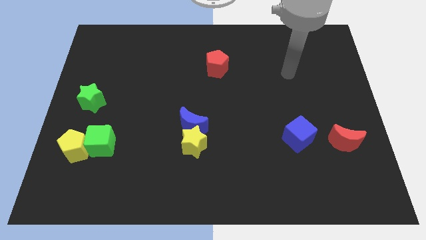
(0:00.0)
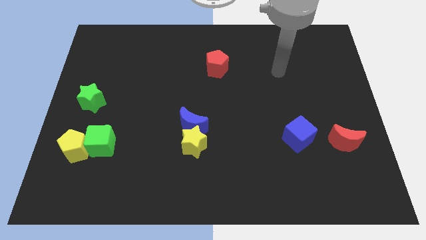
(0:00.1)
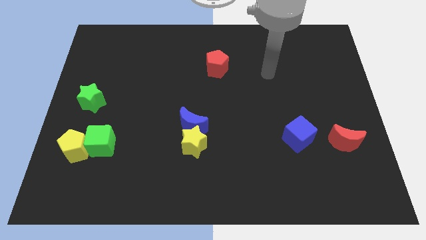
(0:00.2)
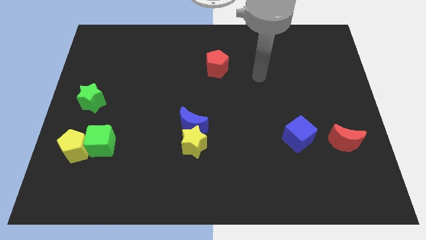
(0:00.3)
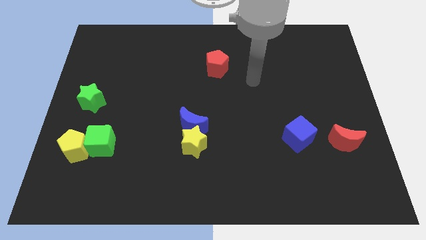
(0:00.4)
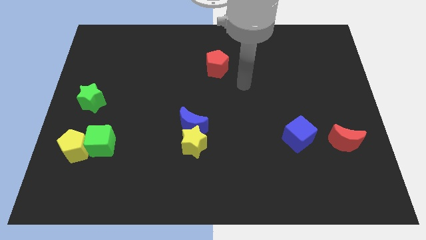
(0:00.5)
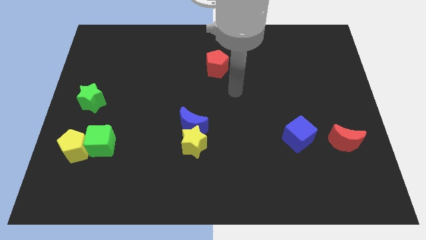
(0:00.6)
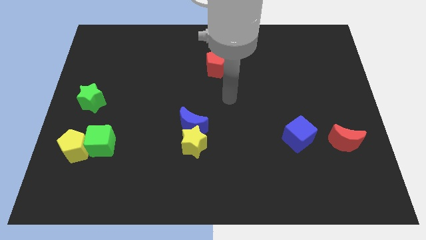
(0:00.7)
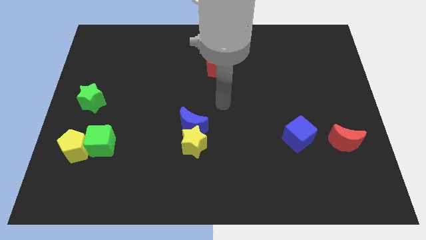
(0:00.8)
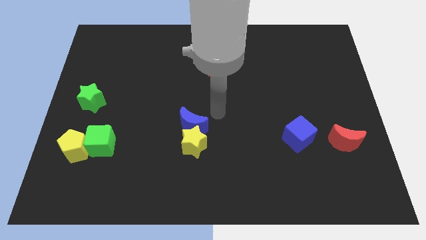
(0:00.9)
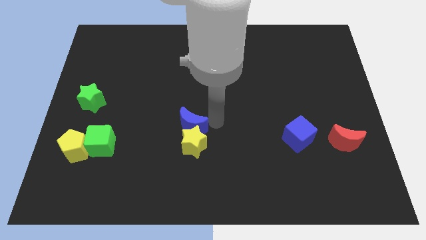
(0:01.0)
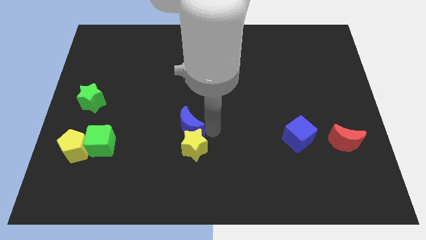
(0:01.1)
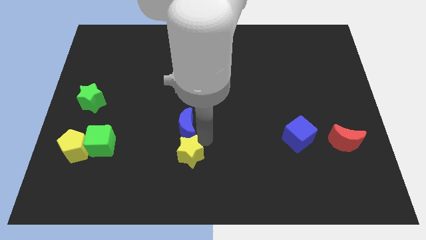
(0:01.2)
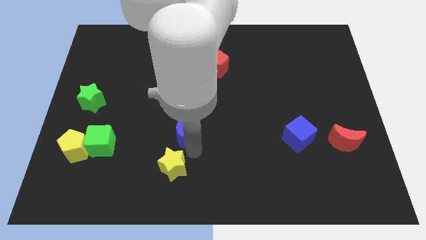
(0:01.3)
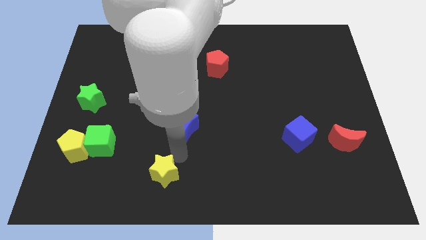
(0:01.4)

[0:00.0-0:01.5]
separate the blue moon from the yellow star

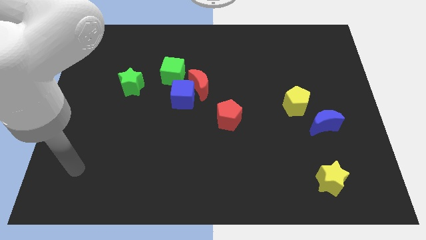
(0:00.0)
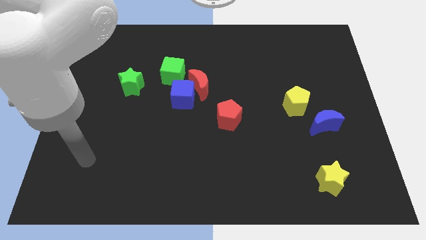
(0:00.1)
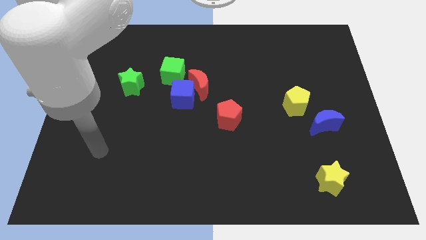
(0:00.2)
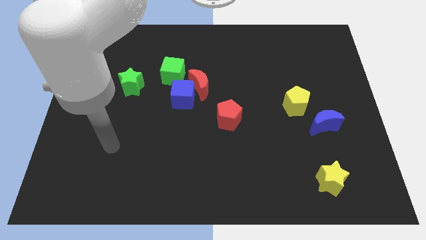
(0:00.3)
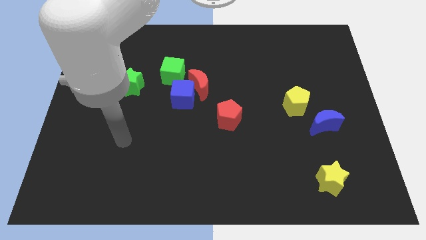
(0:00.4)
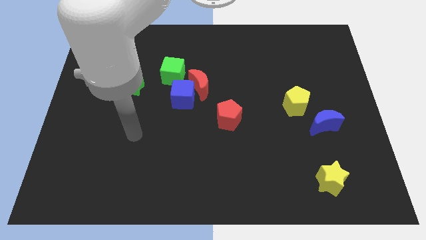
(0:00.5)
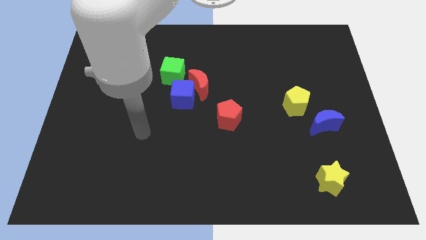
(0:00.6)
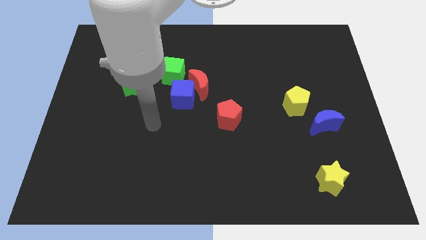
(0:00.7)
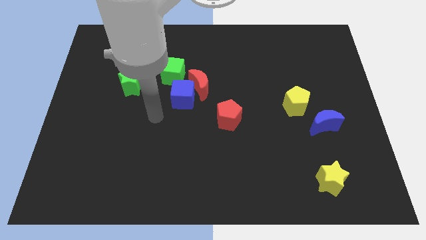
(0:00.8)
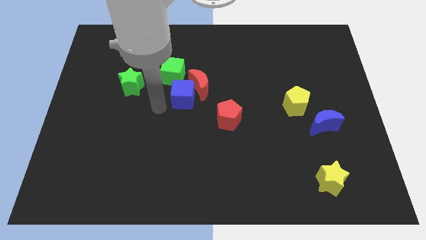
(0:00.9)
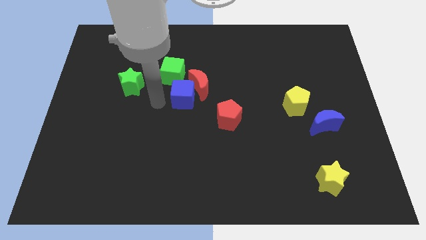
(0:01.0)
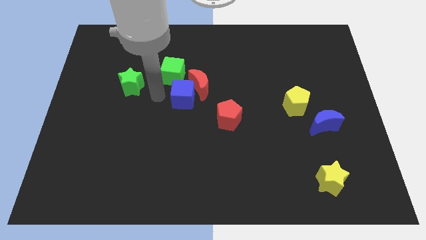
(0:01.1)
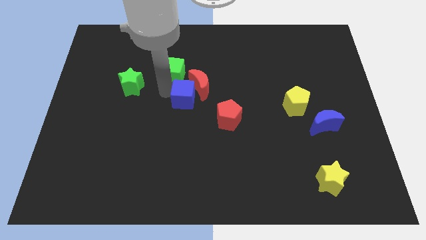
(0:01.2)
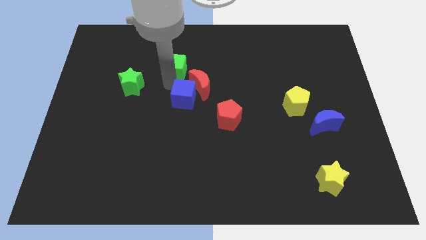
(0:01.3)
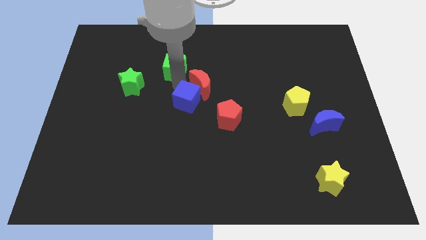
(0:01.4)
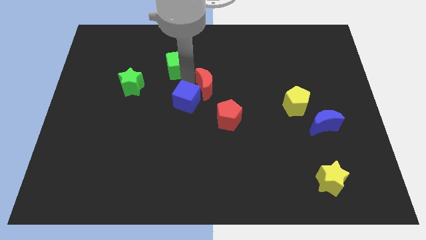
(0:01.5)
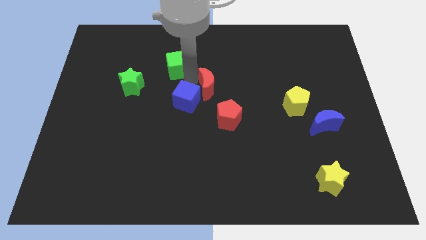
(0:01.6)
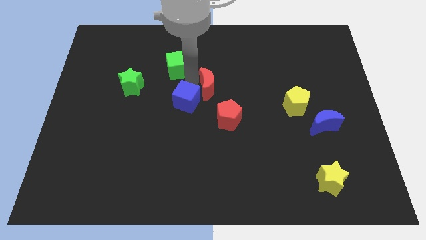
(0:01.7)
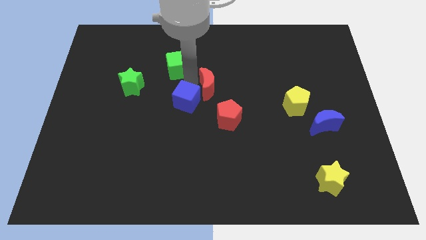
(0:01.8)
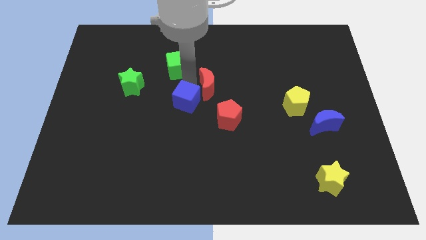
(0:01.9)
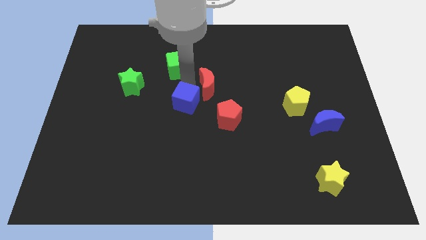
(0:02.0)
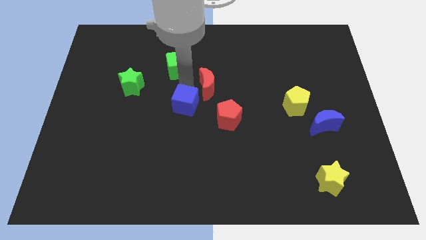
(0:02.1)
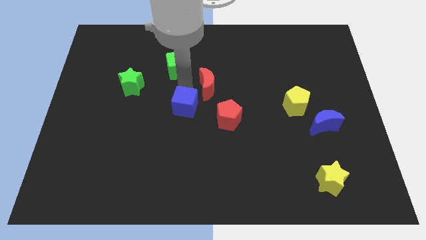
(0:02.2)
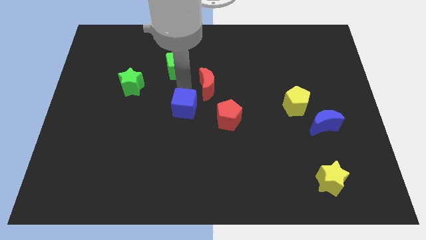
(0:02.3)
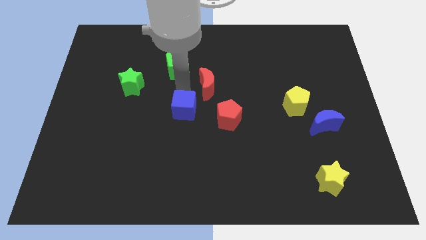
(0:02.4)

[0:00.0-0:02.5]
pull the blue cube apart from the red moon and green cube

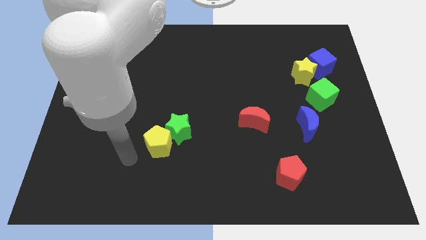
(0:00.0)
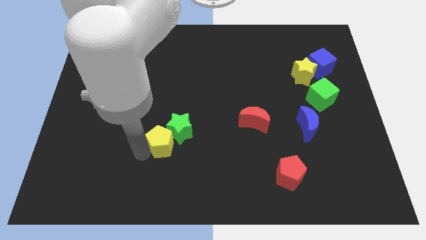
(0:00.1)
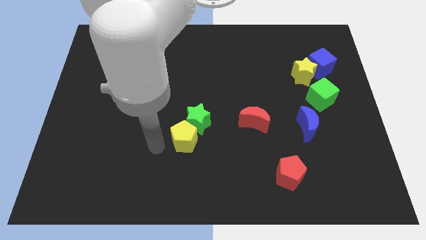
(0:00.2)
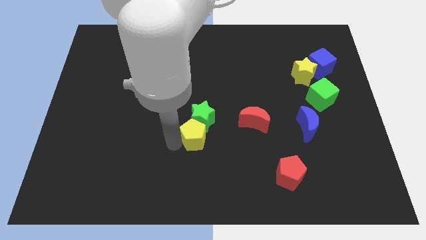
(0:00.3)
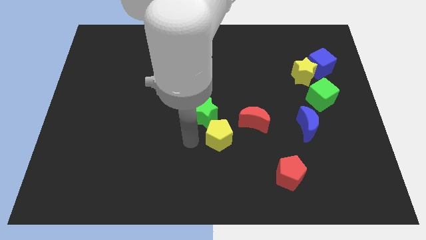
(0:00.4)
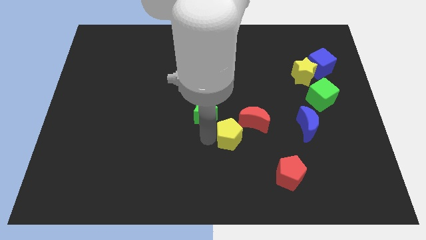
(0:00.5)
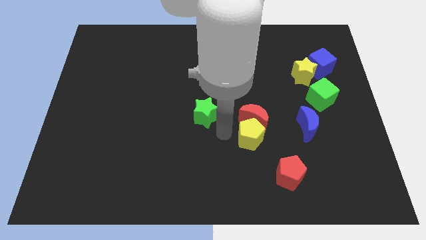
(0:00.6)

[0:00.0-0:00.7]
move the green star away from the yellow pentagon

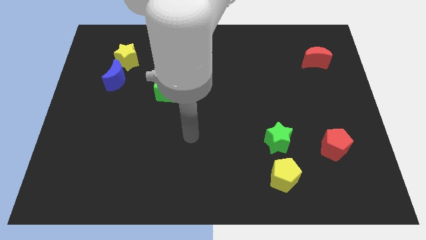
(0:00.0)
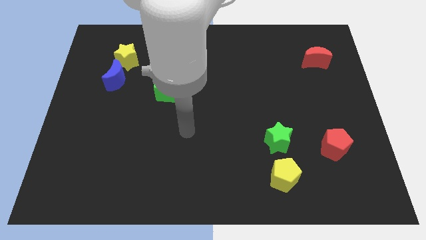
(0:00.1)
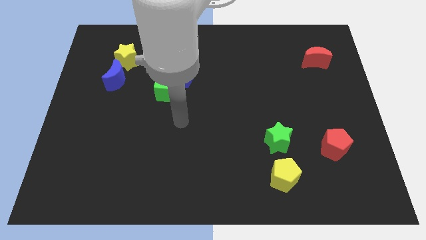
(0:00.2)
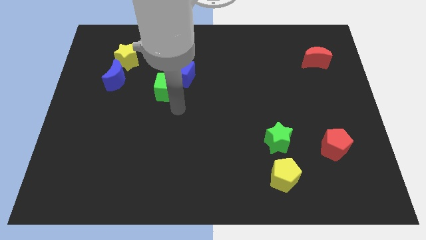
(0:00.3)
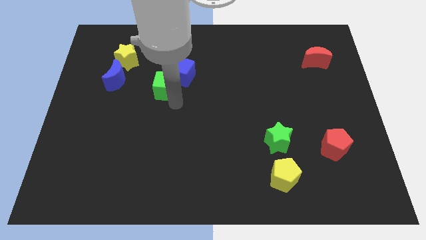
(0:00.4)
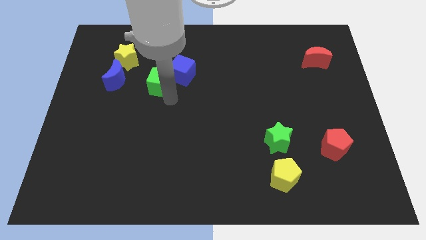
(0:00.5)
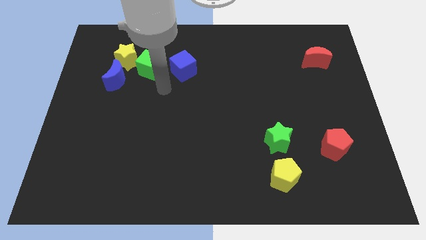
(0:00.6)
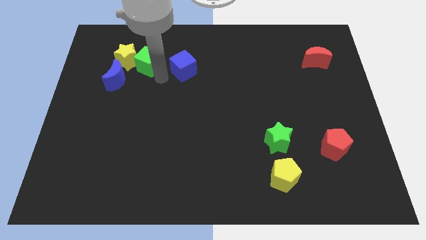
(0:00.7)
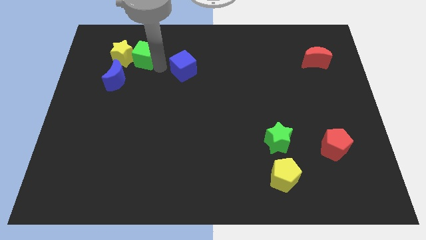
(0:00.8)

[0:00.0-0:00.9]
separate the blue cube from the green cube

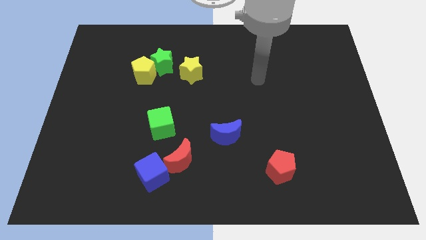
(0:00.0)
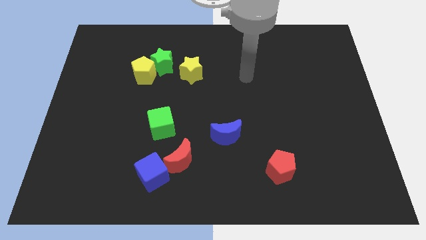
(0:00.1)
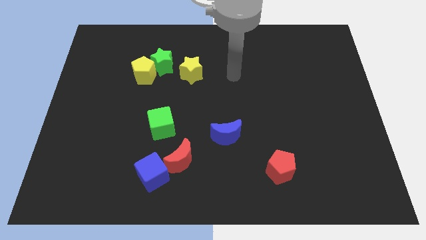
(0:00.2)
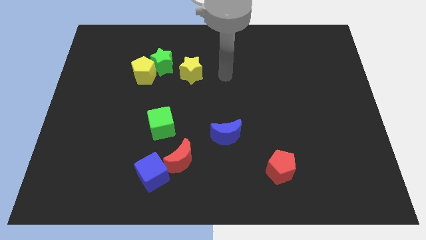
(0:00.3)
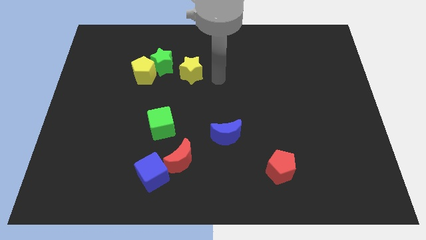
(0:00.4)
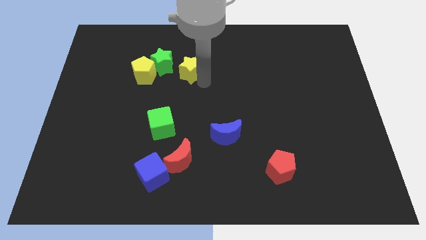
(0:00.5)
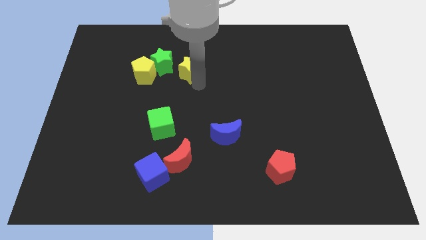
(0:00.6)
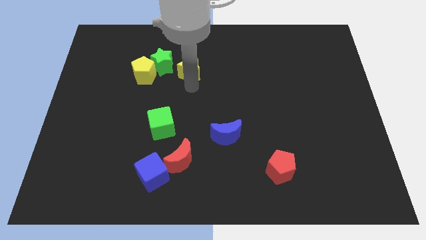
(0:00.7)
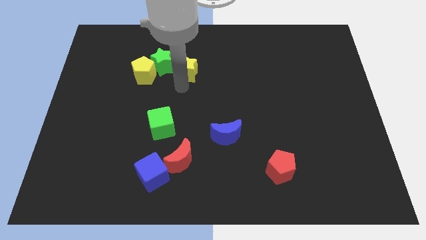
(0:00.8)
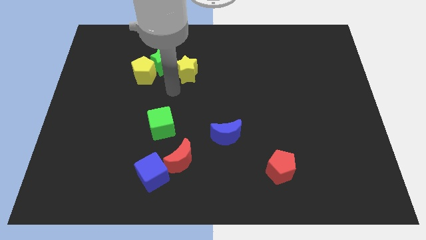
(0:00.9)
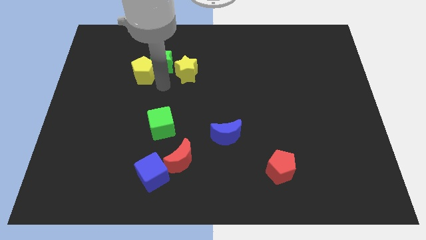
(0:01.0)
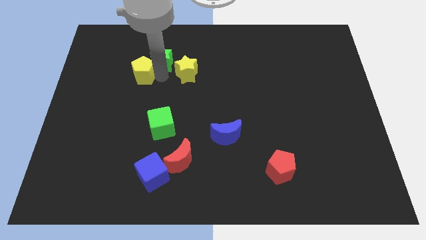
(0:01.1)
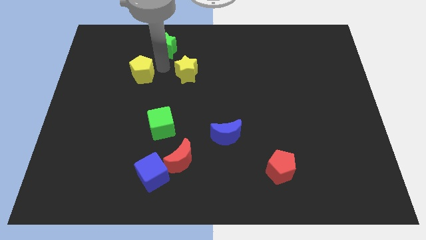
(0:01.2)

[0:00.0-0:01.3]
pull the yellow pentagon apart from the green star

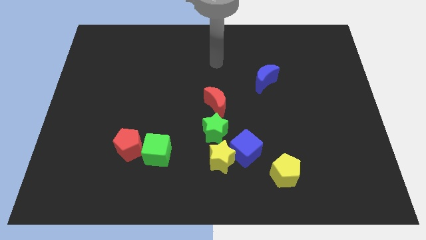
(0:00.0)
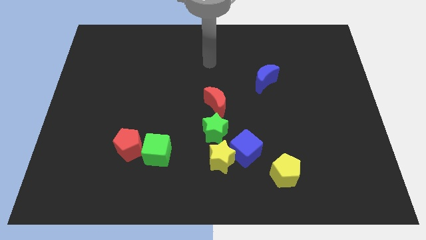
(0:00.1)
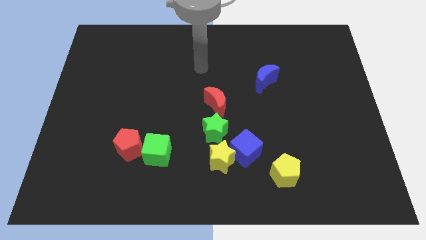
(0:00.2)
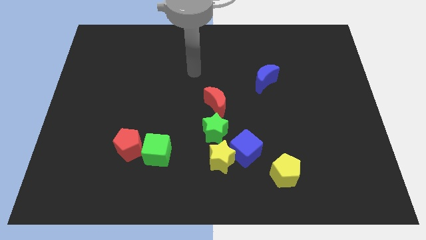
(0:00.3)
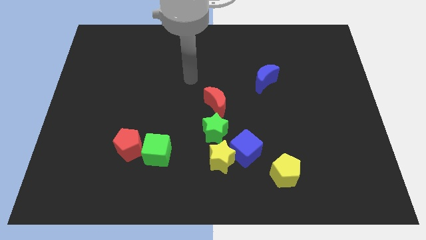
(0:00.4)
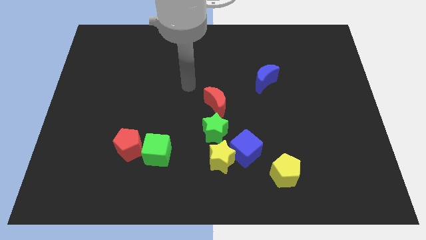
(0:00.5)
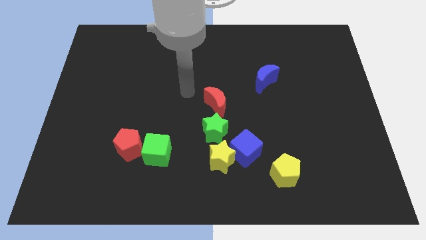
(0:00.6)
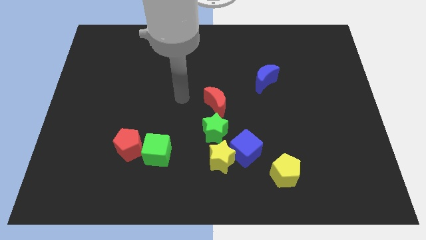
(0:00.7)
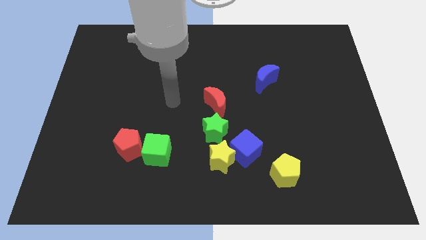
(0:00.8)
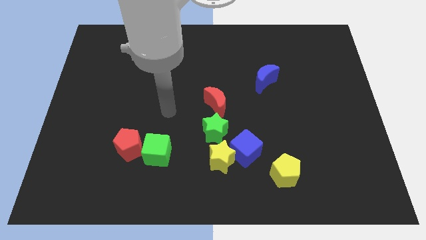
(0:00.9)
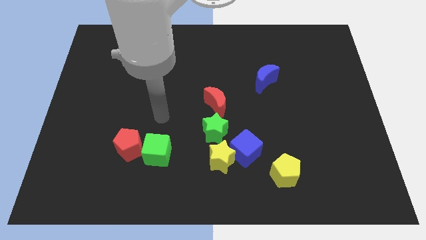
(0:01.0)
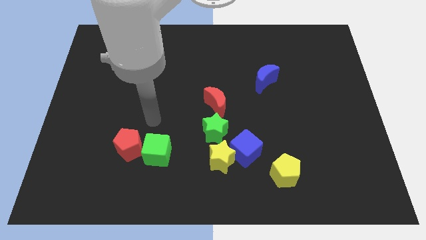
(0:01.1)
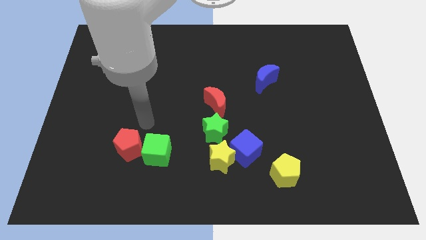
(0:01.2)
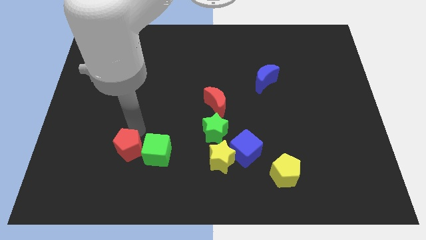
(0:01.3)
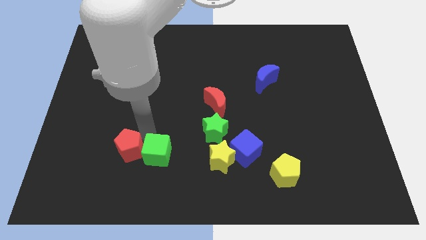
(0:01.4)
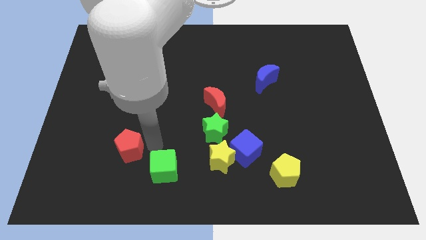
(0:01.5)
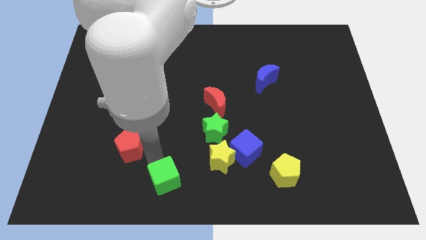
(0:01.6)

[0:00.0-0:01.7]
move the red pentagon away from the green cube

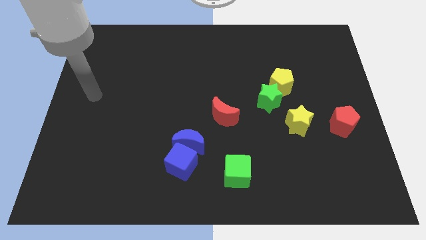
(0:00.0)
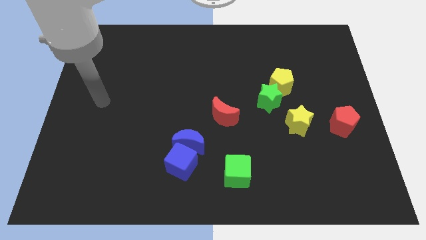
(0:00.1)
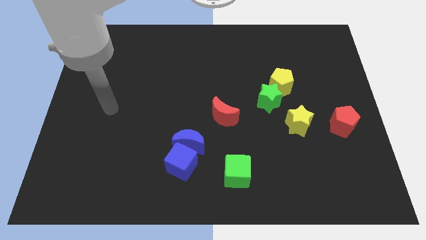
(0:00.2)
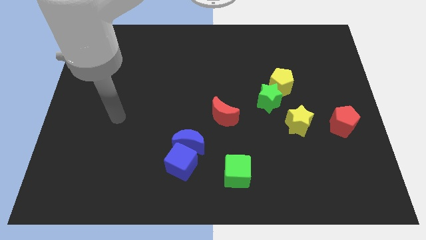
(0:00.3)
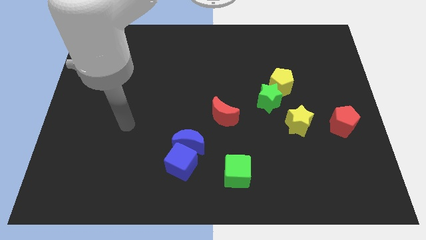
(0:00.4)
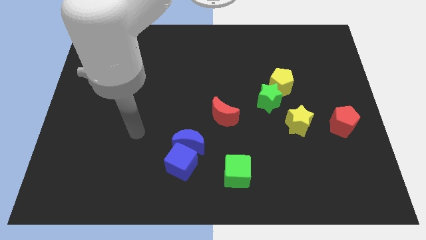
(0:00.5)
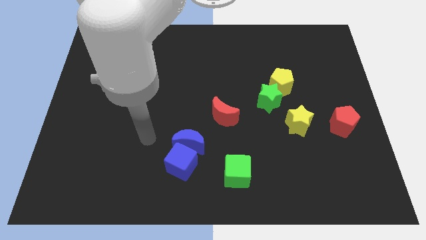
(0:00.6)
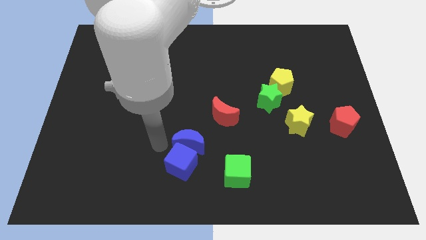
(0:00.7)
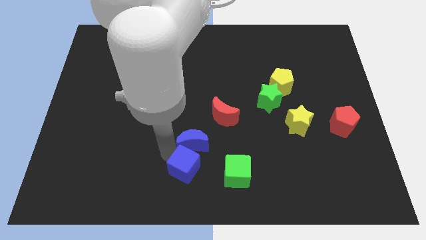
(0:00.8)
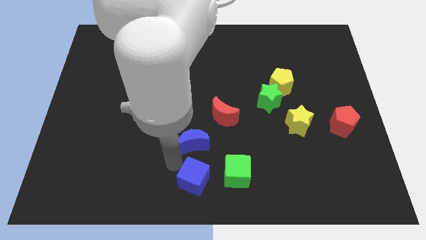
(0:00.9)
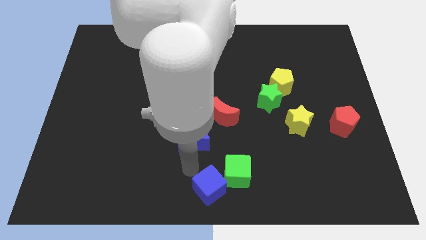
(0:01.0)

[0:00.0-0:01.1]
separate the blue moon from the blue cube
